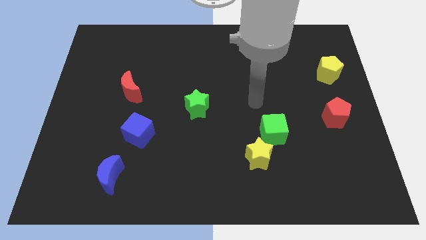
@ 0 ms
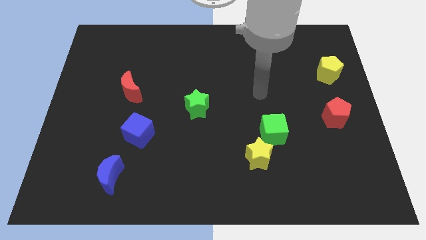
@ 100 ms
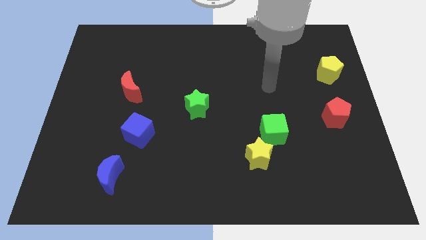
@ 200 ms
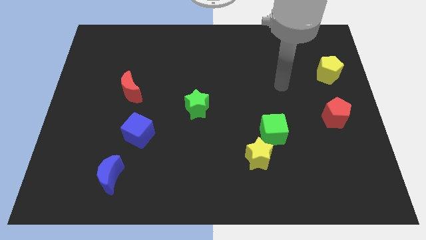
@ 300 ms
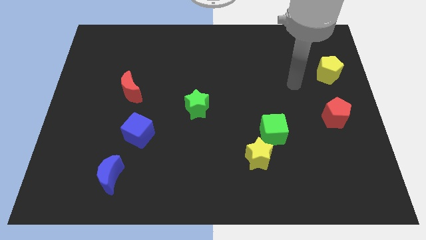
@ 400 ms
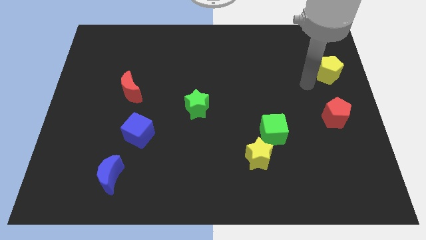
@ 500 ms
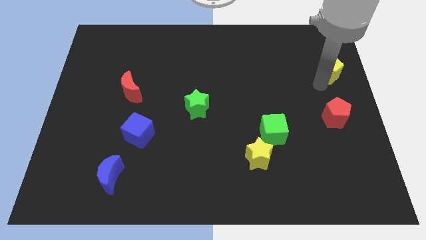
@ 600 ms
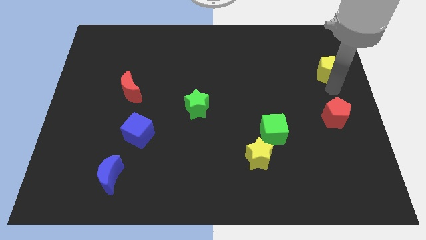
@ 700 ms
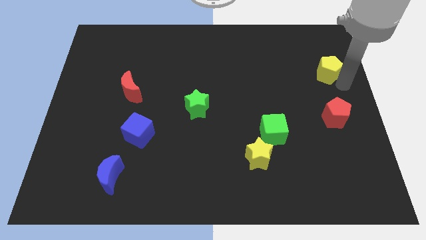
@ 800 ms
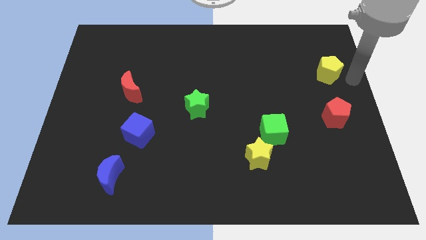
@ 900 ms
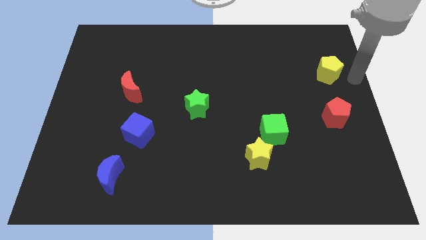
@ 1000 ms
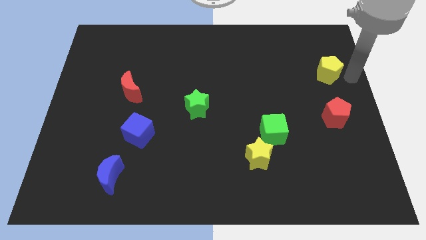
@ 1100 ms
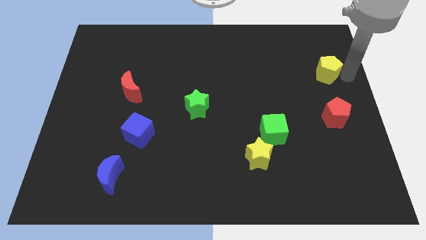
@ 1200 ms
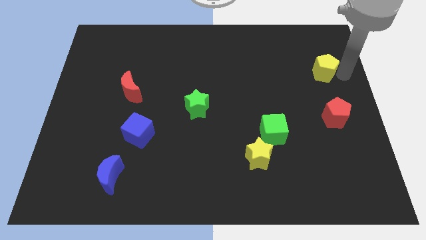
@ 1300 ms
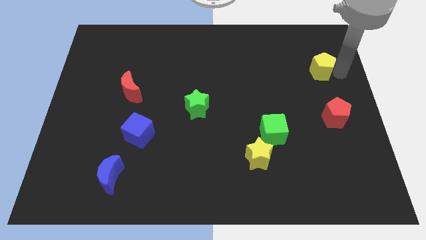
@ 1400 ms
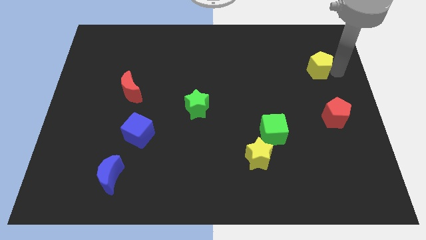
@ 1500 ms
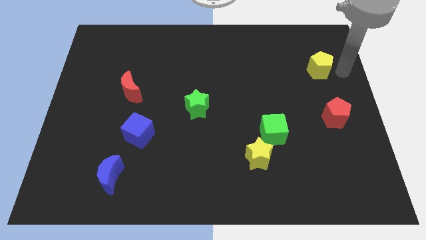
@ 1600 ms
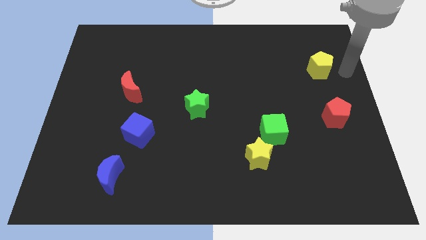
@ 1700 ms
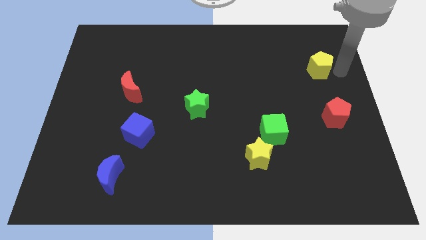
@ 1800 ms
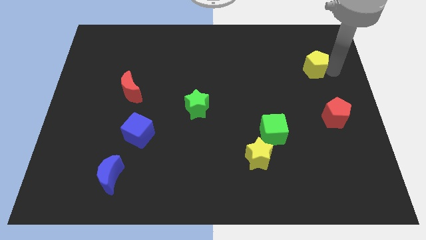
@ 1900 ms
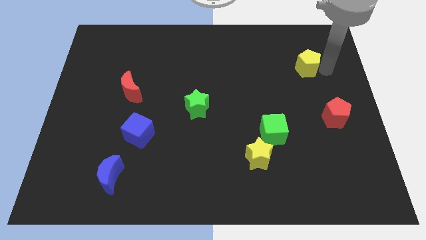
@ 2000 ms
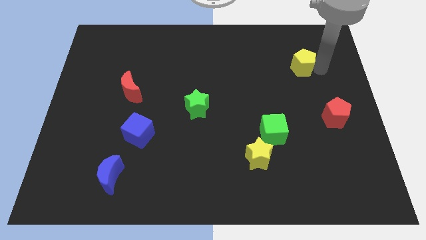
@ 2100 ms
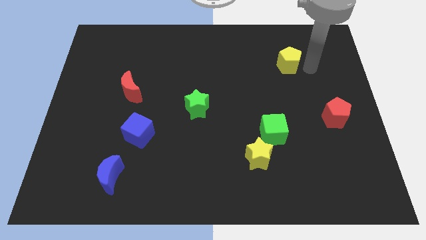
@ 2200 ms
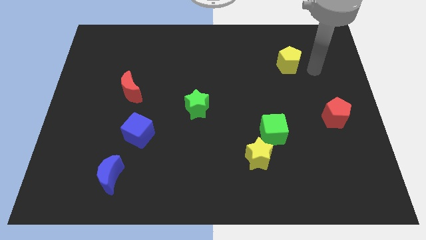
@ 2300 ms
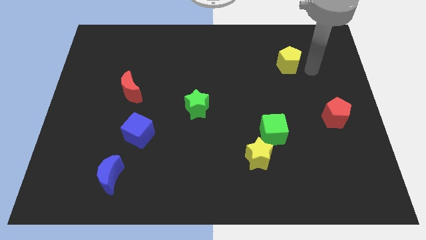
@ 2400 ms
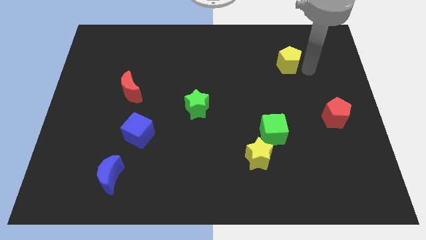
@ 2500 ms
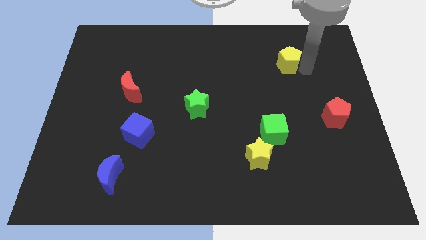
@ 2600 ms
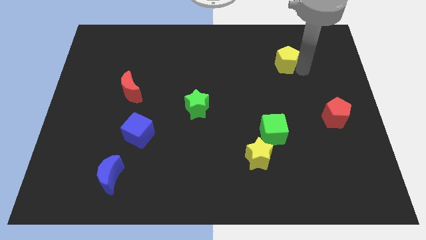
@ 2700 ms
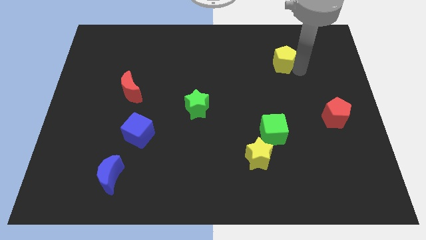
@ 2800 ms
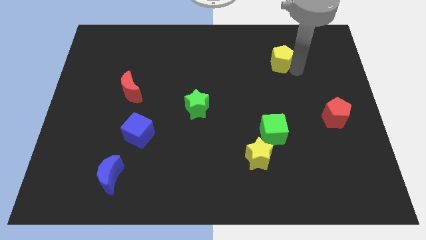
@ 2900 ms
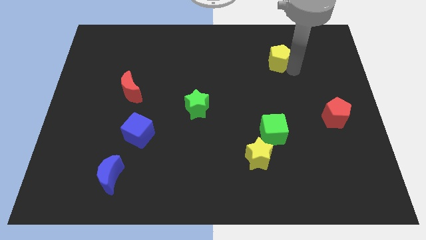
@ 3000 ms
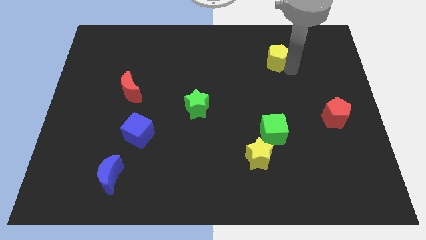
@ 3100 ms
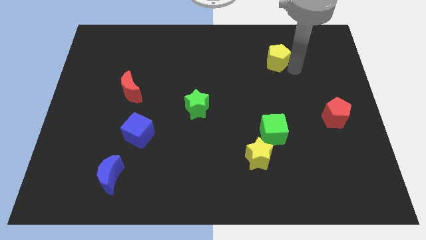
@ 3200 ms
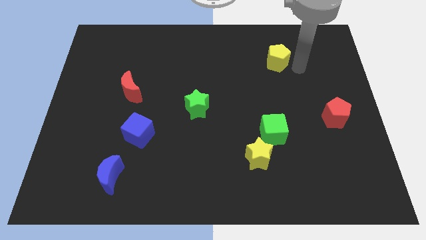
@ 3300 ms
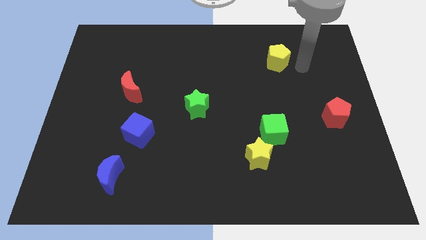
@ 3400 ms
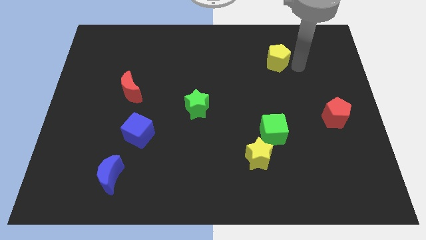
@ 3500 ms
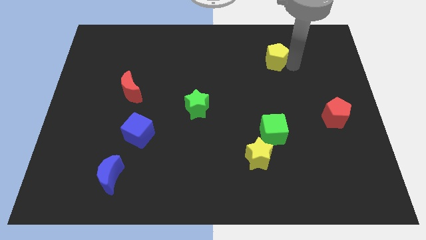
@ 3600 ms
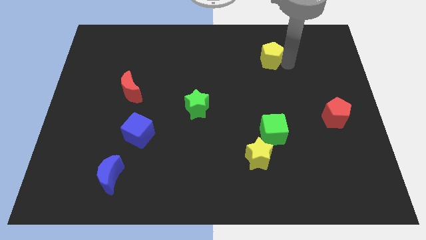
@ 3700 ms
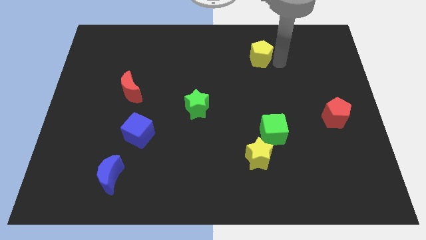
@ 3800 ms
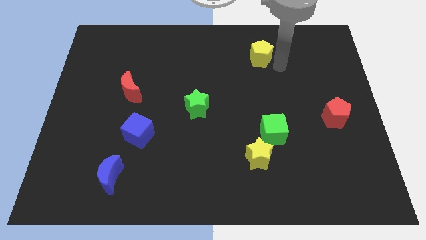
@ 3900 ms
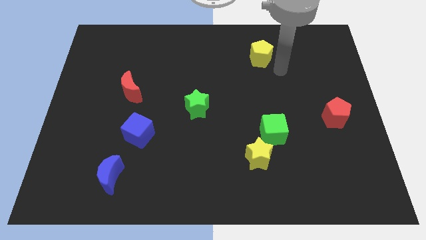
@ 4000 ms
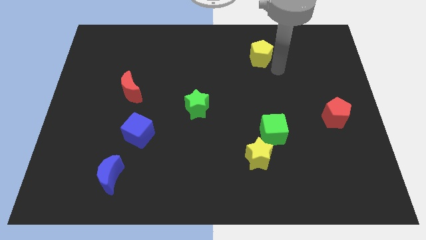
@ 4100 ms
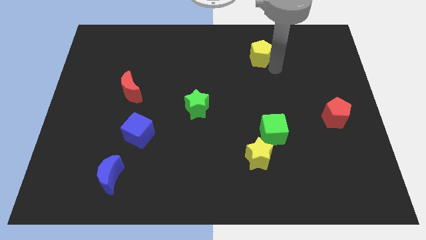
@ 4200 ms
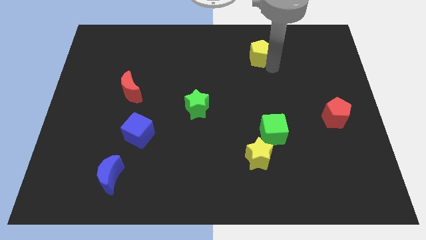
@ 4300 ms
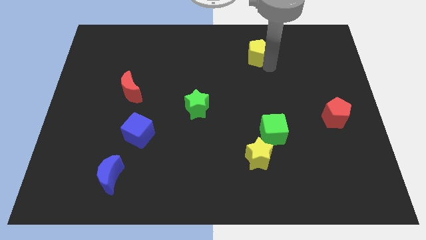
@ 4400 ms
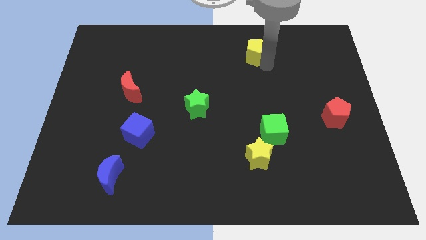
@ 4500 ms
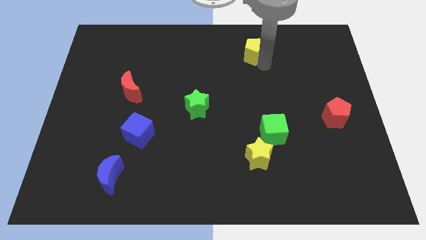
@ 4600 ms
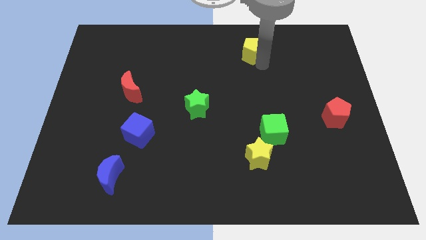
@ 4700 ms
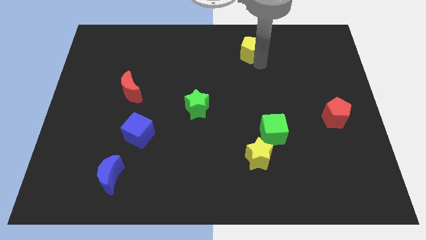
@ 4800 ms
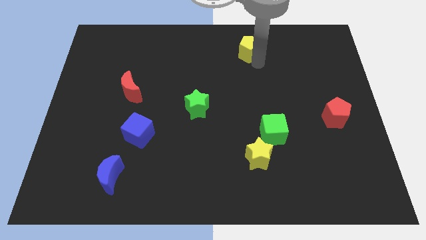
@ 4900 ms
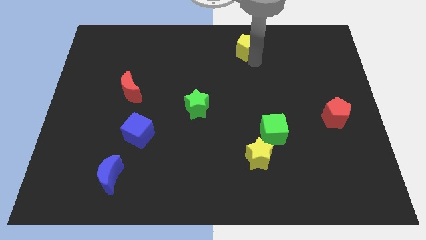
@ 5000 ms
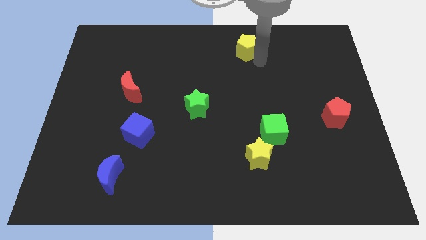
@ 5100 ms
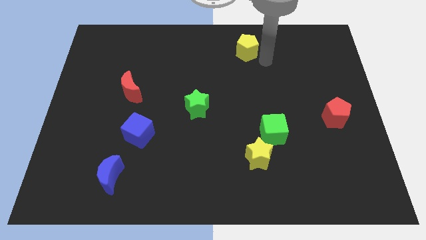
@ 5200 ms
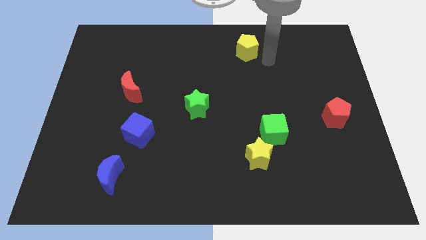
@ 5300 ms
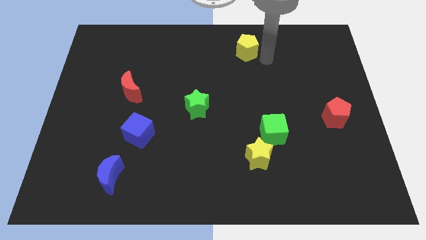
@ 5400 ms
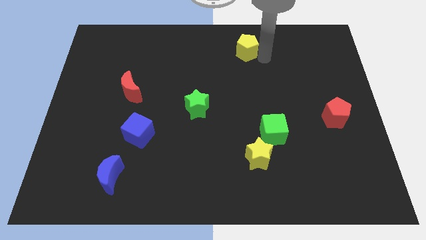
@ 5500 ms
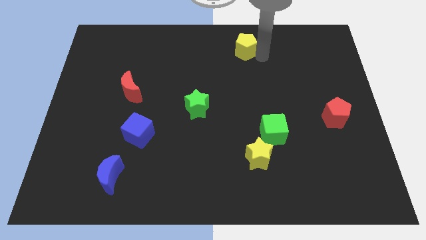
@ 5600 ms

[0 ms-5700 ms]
push the yellow pentagon to the top side

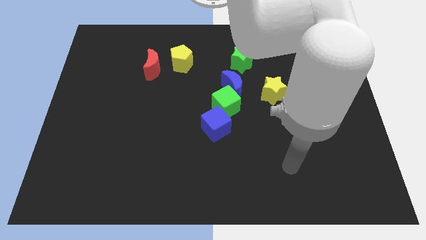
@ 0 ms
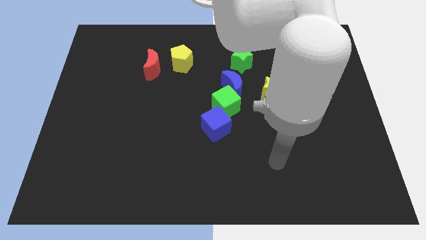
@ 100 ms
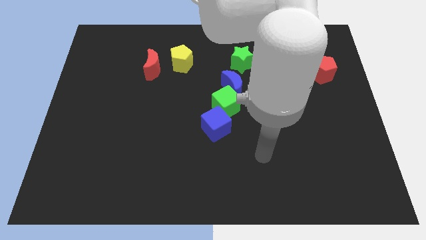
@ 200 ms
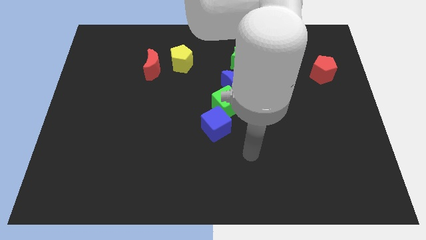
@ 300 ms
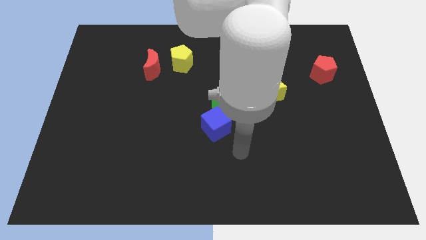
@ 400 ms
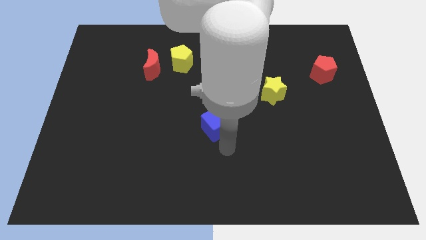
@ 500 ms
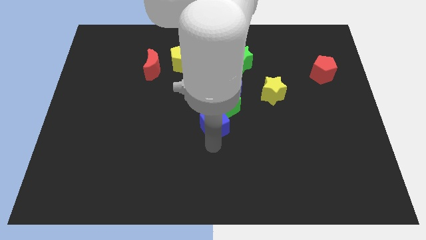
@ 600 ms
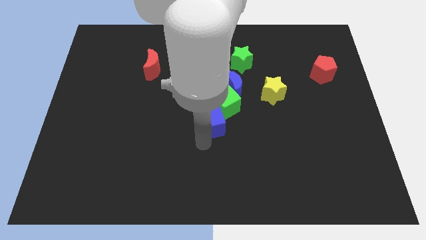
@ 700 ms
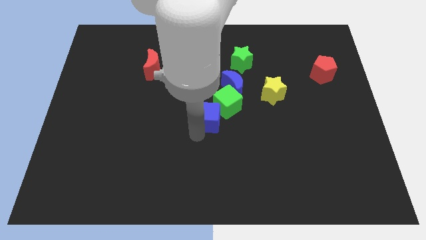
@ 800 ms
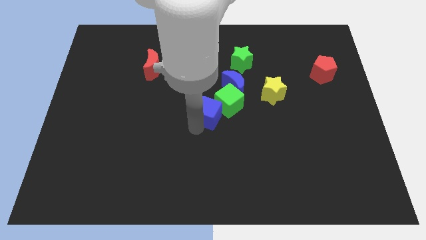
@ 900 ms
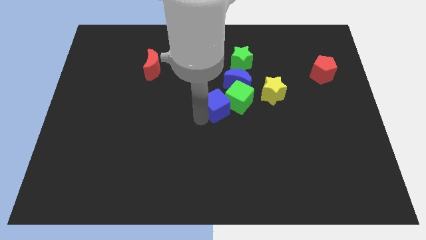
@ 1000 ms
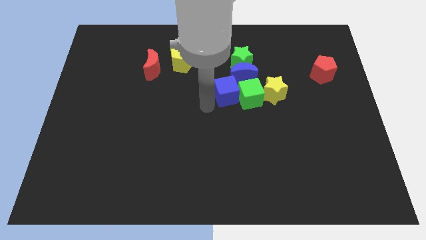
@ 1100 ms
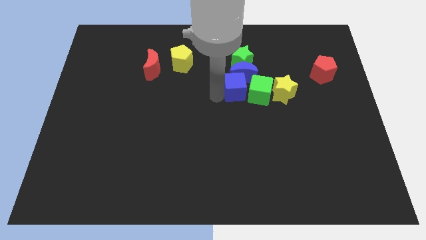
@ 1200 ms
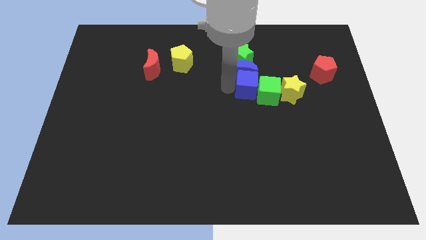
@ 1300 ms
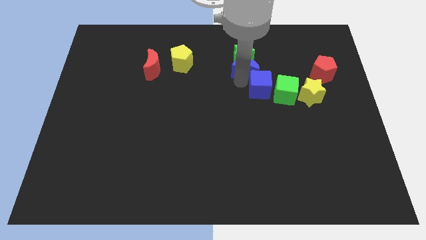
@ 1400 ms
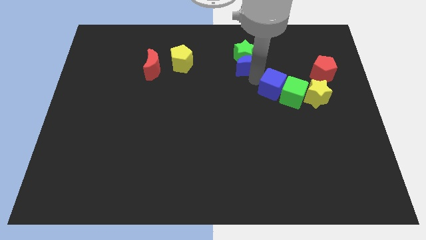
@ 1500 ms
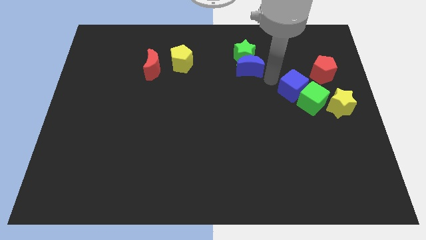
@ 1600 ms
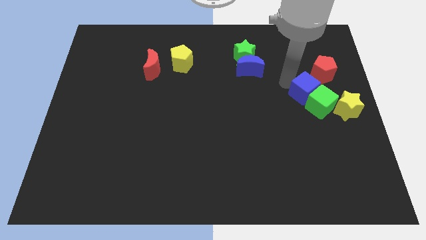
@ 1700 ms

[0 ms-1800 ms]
put the green cube to the center right
